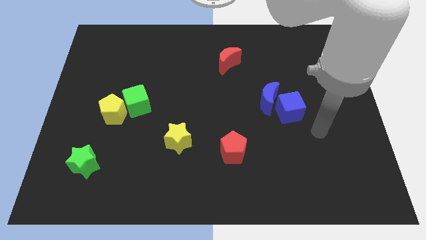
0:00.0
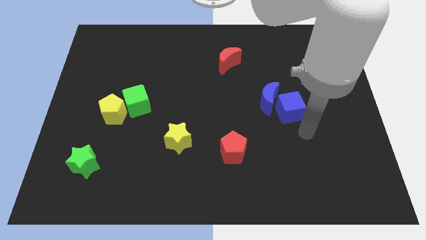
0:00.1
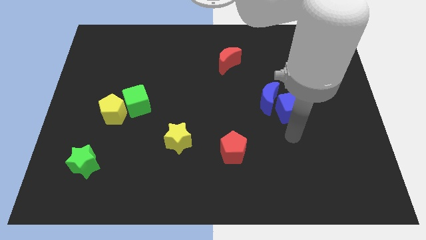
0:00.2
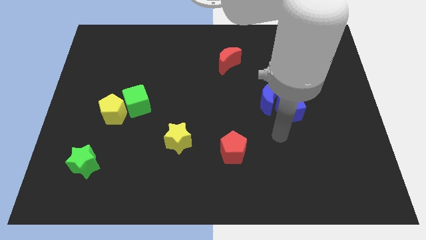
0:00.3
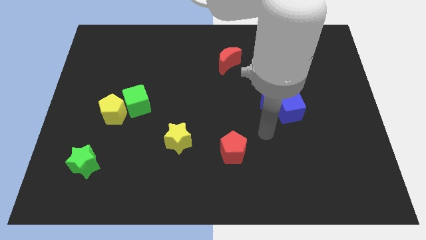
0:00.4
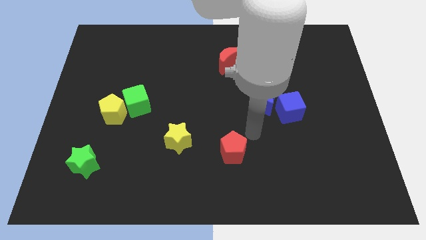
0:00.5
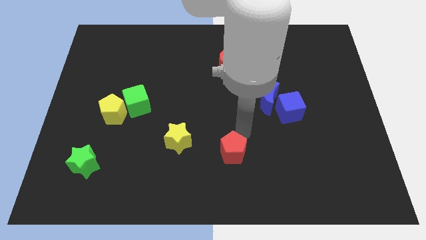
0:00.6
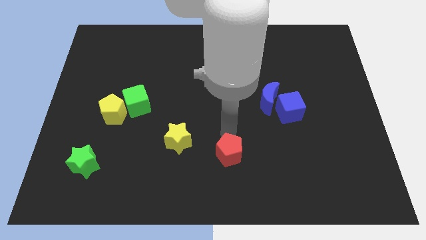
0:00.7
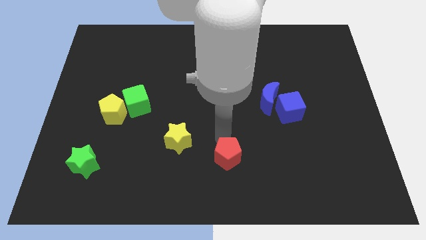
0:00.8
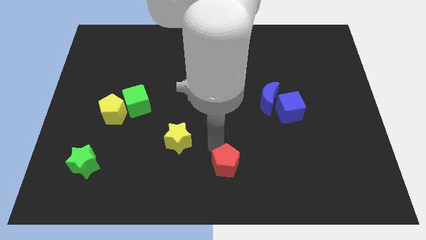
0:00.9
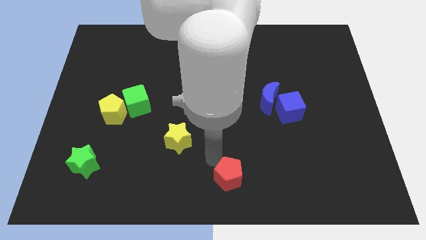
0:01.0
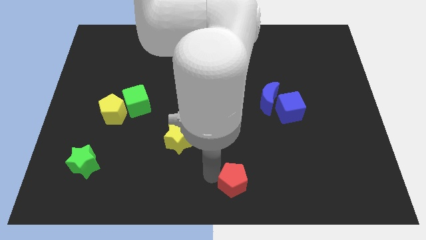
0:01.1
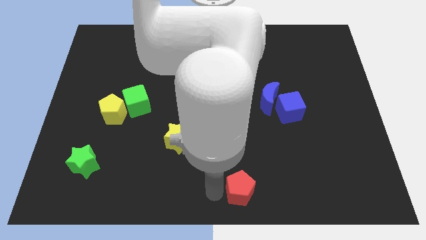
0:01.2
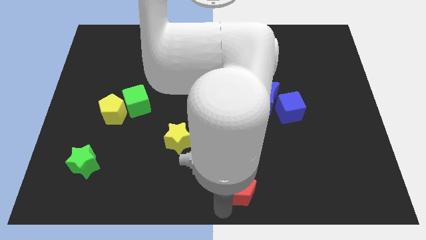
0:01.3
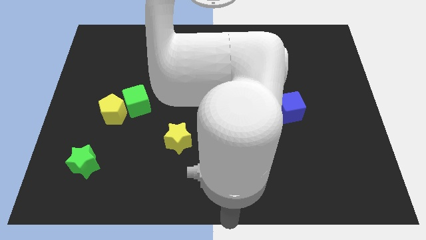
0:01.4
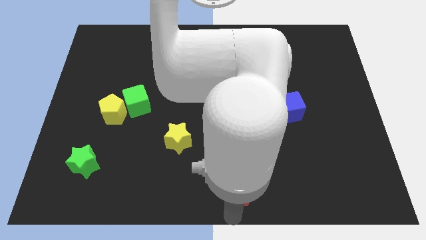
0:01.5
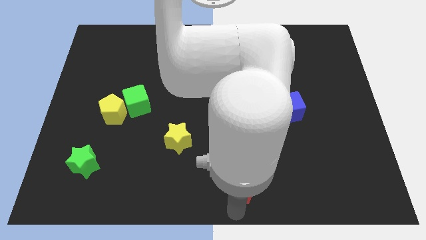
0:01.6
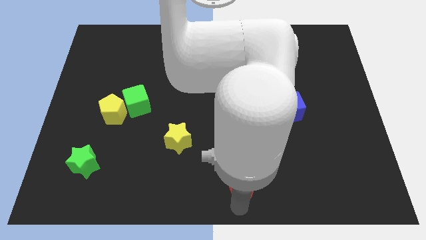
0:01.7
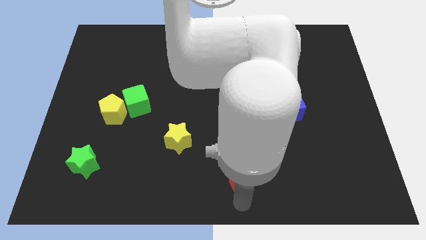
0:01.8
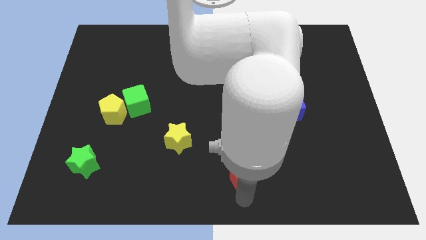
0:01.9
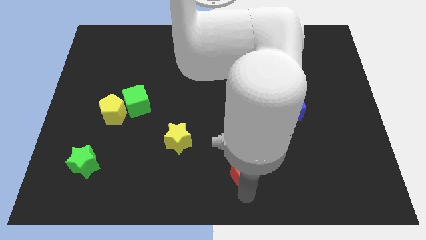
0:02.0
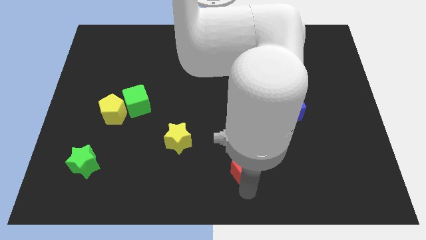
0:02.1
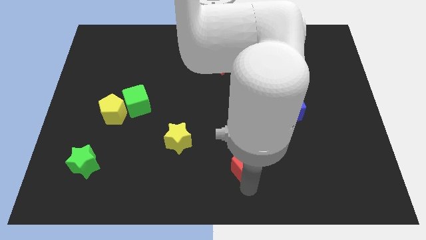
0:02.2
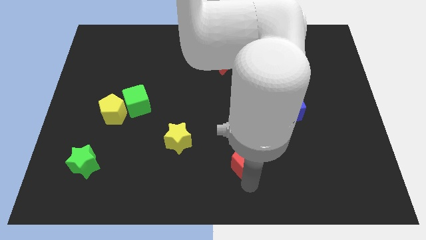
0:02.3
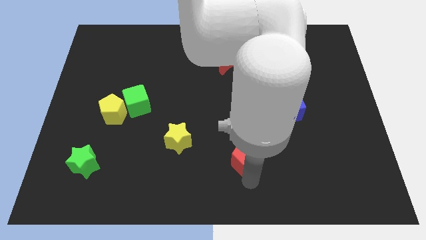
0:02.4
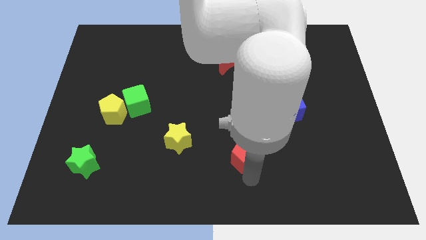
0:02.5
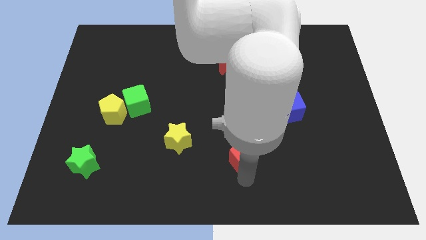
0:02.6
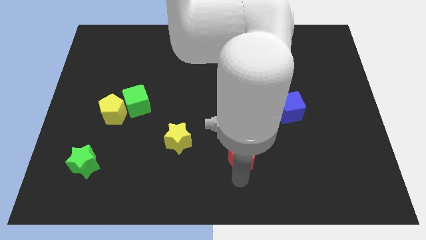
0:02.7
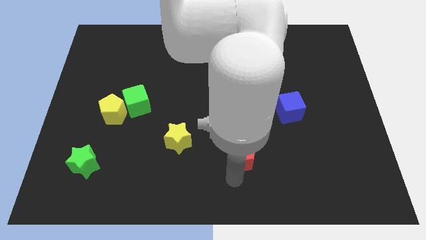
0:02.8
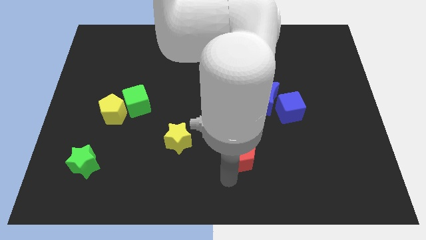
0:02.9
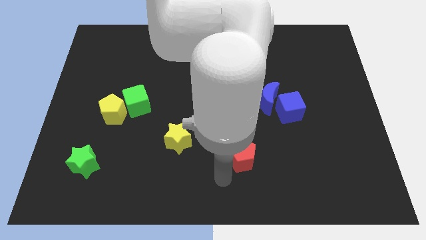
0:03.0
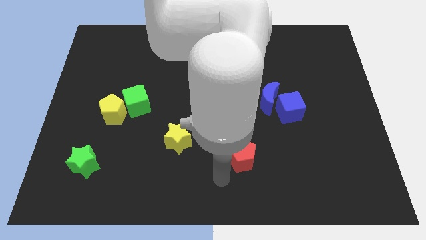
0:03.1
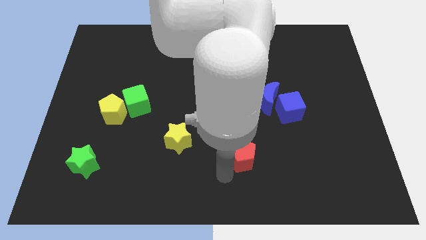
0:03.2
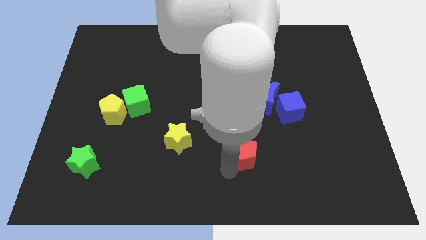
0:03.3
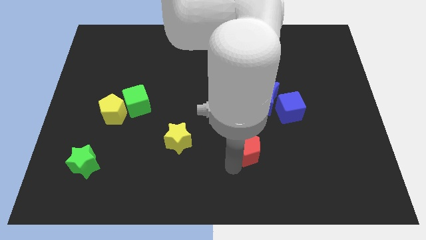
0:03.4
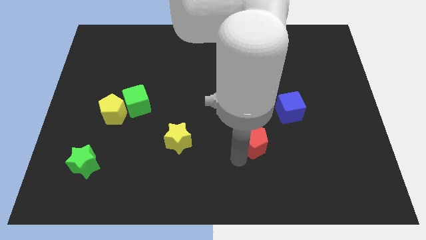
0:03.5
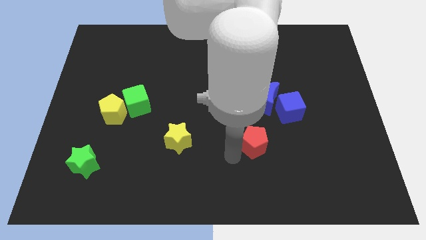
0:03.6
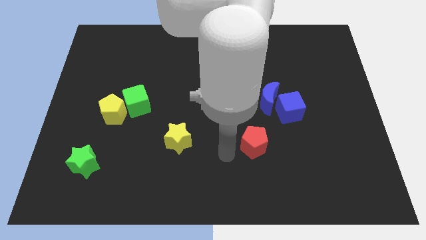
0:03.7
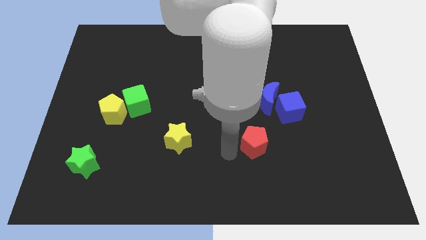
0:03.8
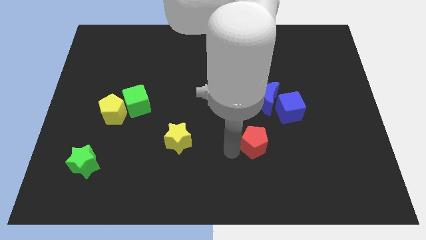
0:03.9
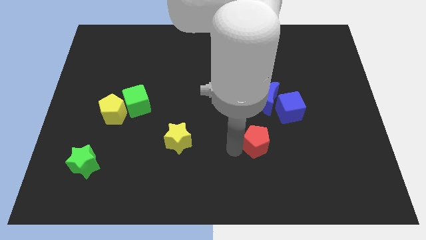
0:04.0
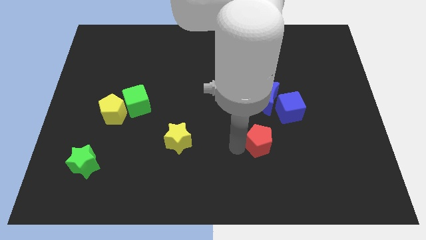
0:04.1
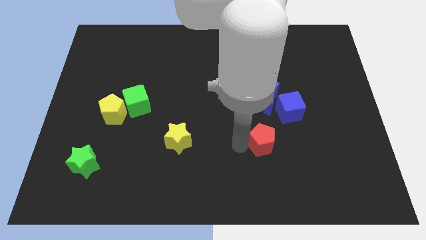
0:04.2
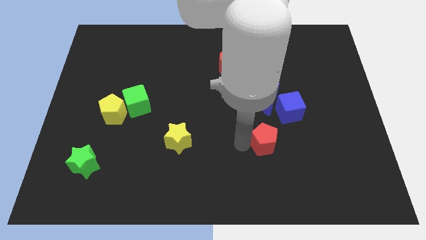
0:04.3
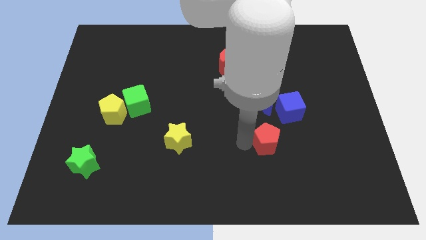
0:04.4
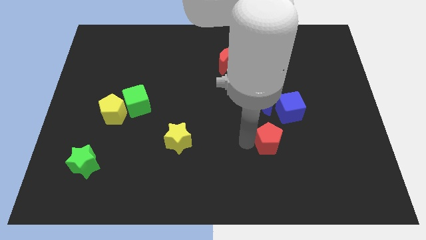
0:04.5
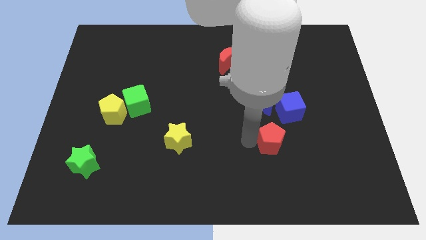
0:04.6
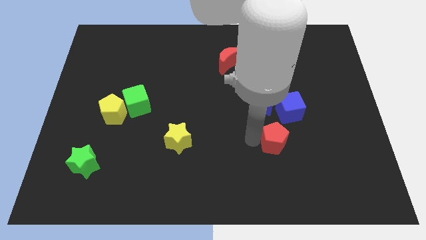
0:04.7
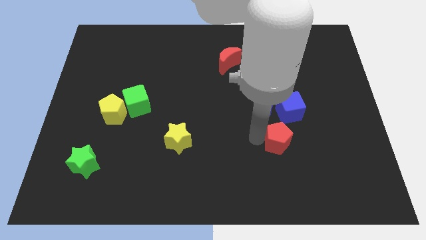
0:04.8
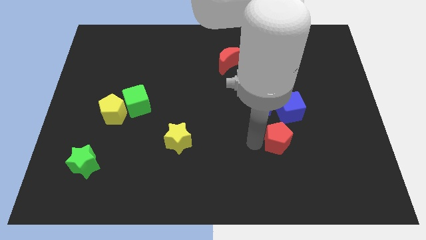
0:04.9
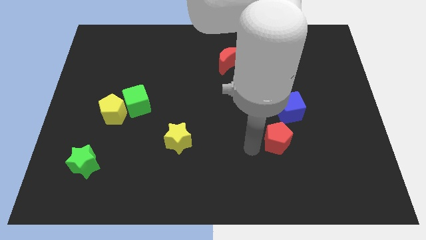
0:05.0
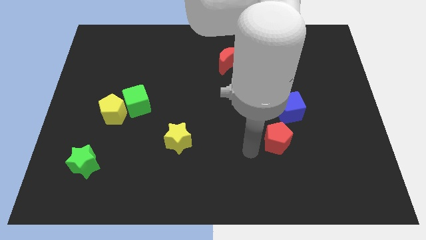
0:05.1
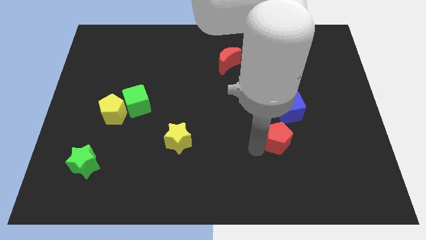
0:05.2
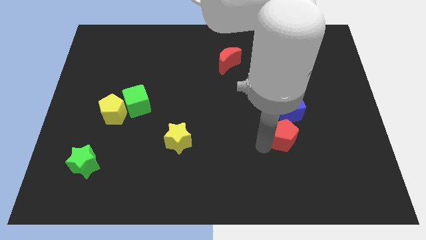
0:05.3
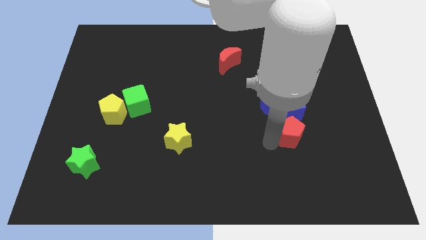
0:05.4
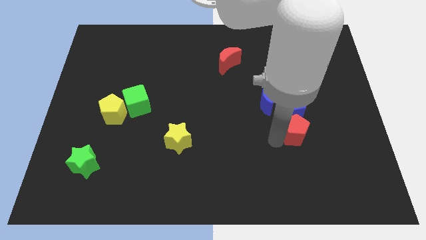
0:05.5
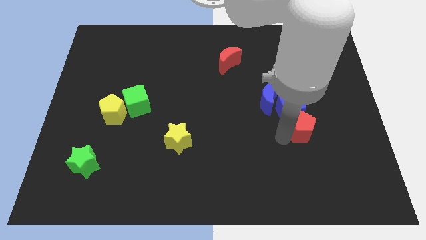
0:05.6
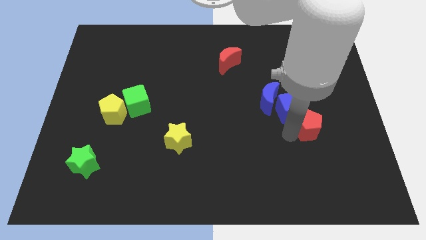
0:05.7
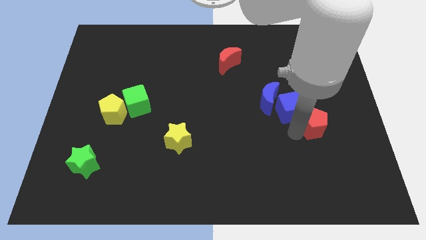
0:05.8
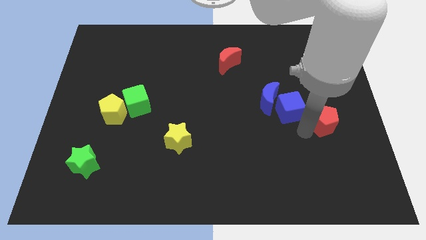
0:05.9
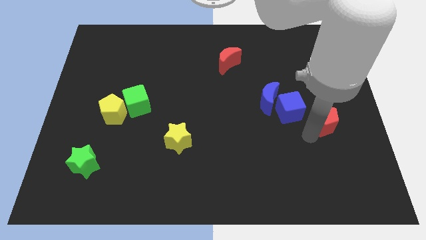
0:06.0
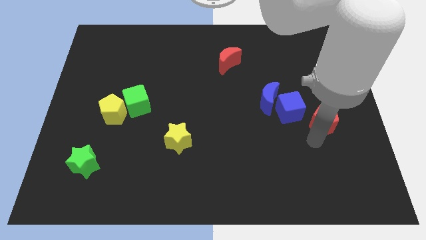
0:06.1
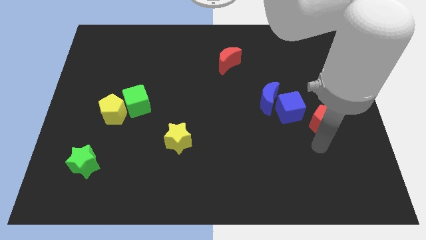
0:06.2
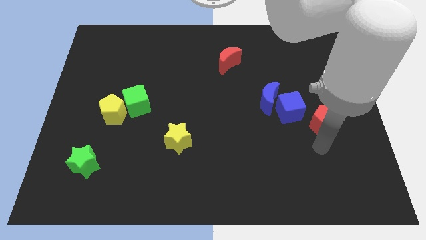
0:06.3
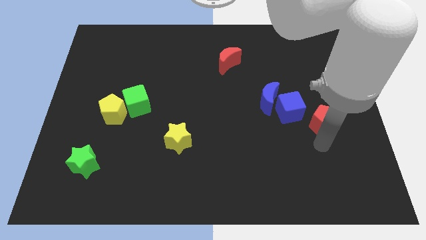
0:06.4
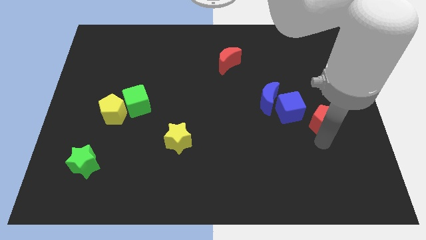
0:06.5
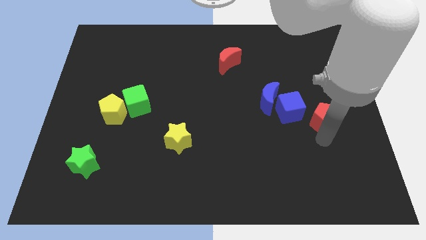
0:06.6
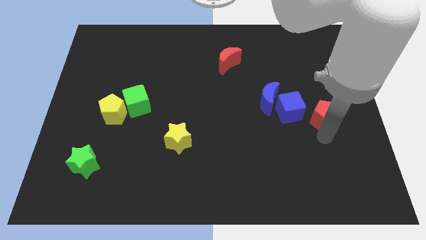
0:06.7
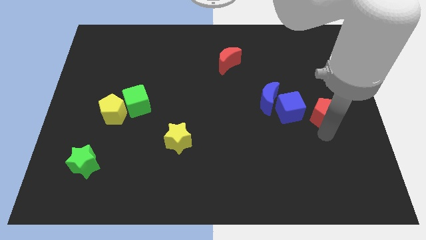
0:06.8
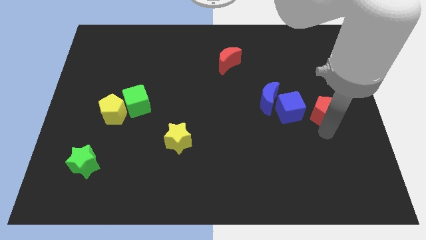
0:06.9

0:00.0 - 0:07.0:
put the red pentagon to the center right
